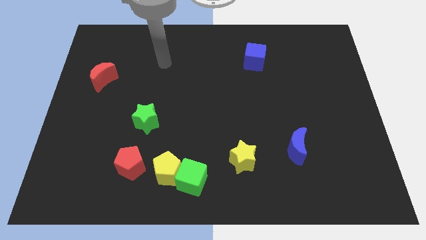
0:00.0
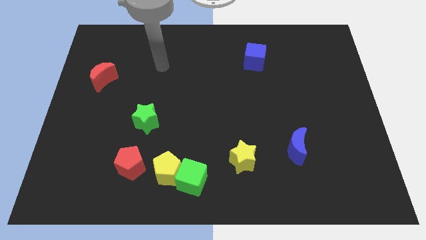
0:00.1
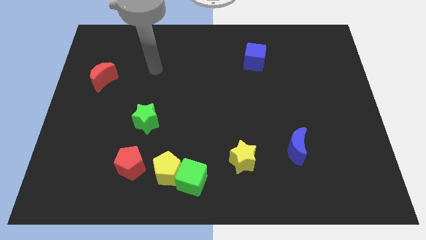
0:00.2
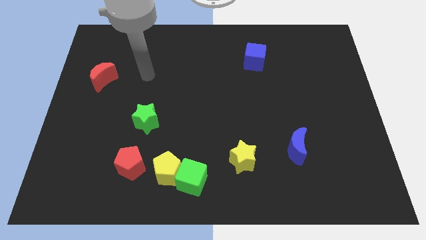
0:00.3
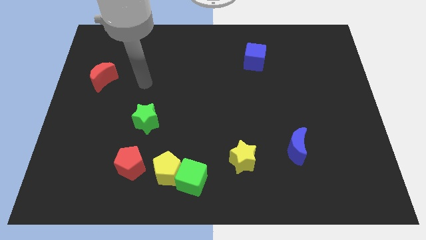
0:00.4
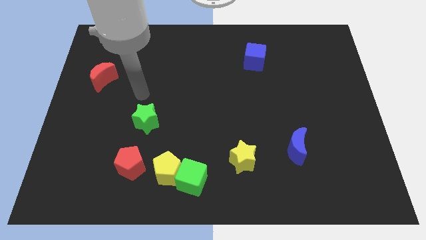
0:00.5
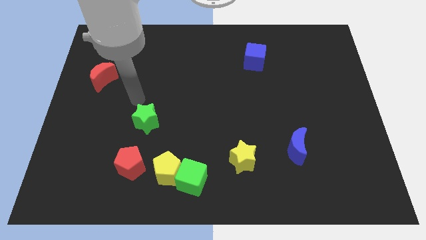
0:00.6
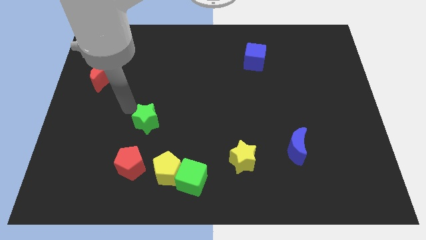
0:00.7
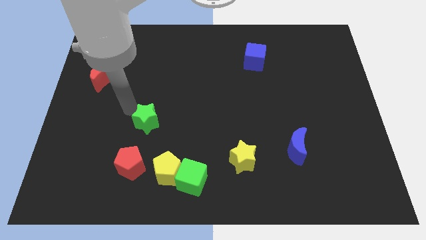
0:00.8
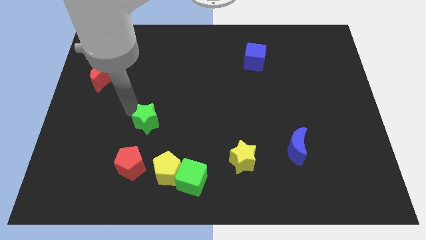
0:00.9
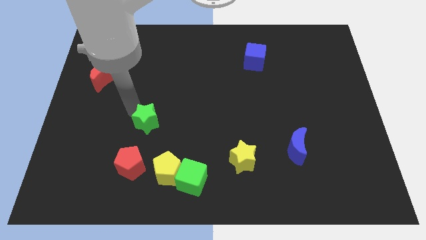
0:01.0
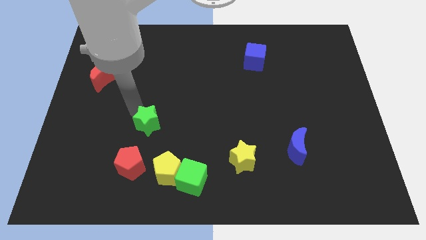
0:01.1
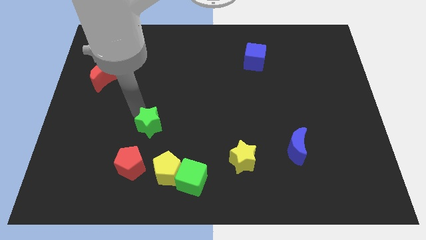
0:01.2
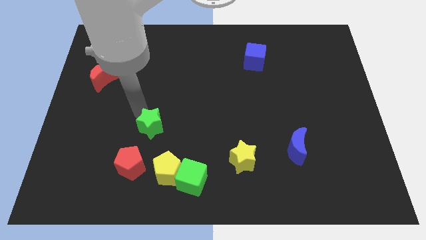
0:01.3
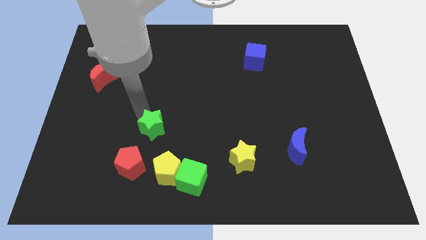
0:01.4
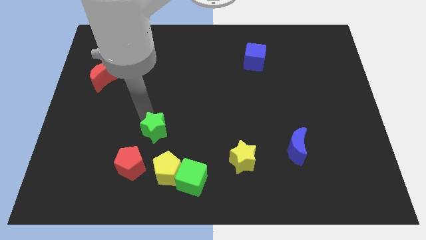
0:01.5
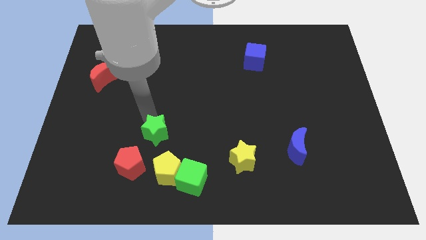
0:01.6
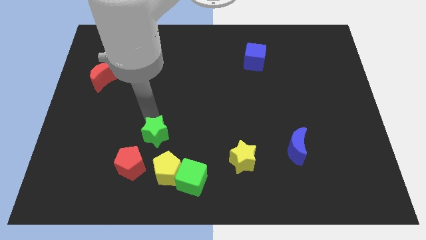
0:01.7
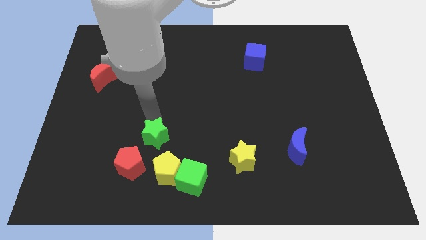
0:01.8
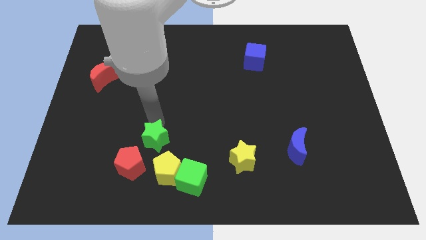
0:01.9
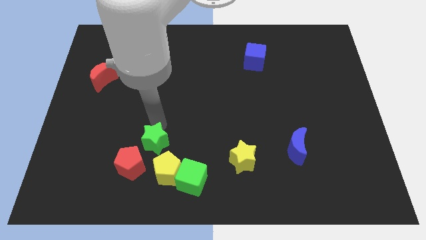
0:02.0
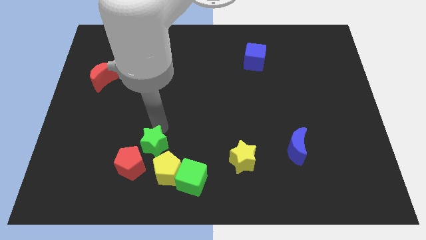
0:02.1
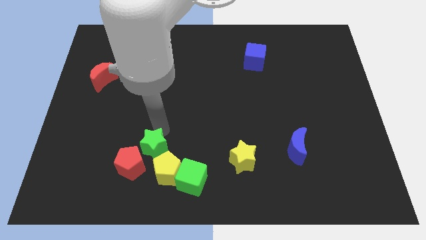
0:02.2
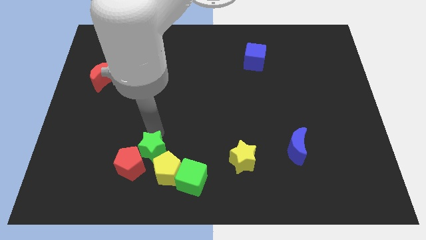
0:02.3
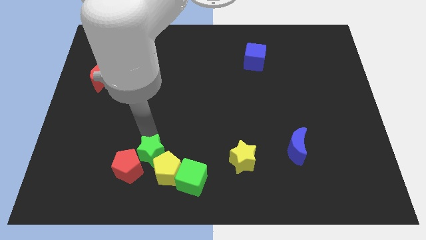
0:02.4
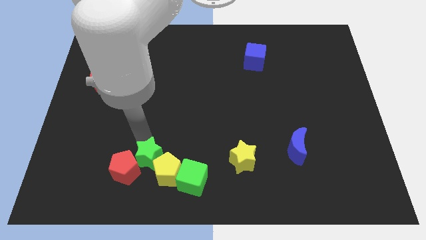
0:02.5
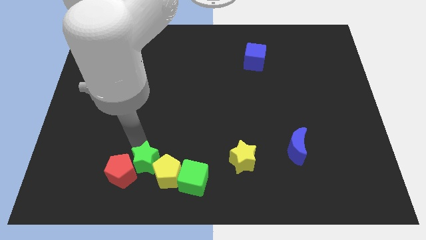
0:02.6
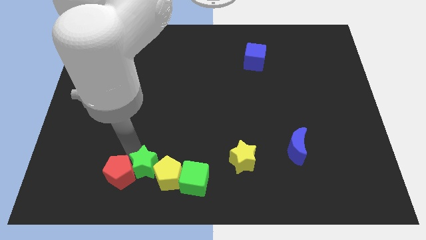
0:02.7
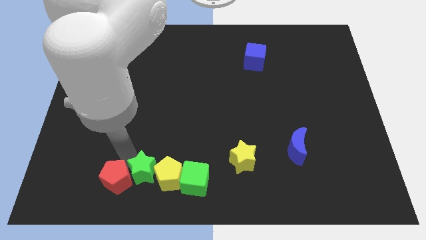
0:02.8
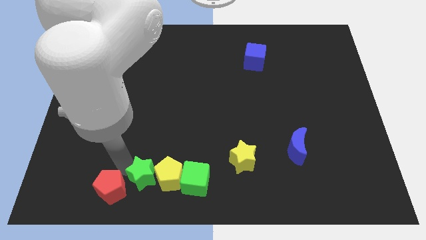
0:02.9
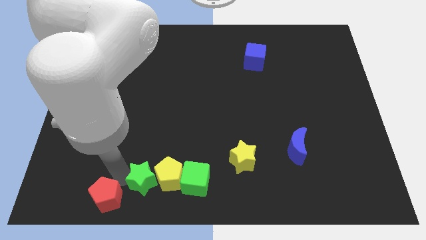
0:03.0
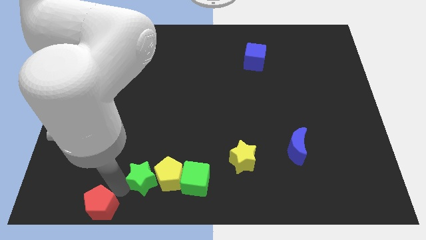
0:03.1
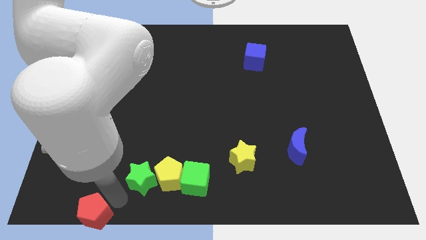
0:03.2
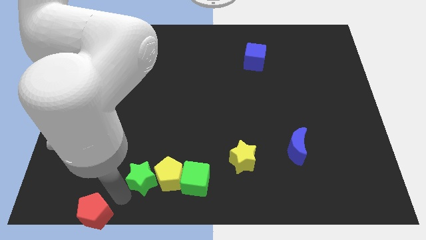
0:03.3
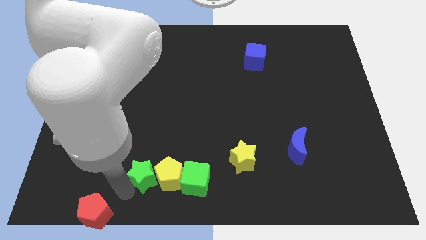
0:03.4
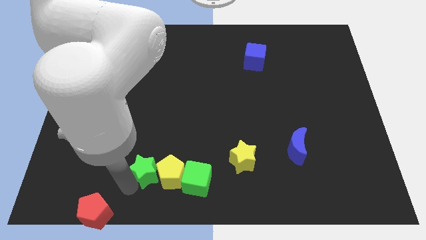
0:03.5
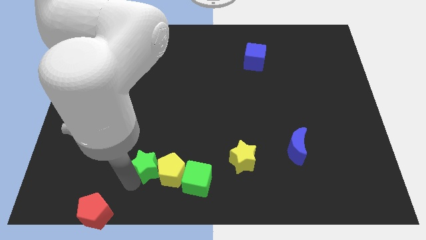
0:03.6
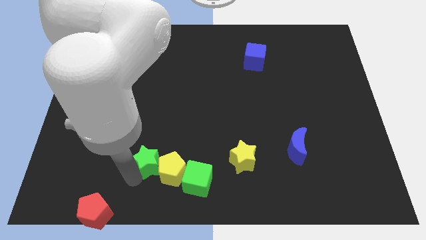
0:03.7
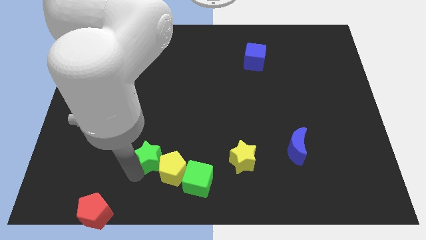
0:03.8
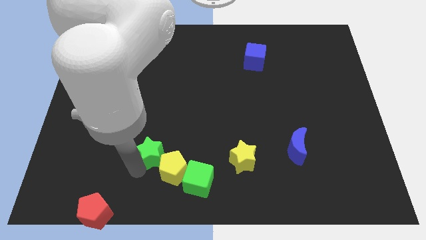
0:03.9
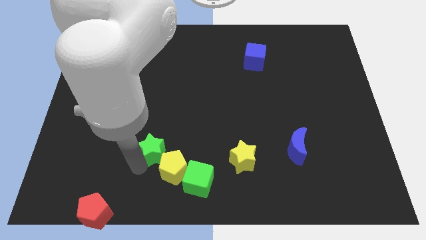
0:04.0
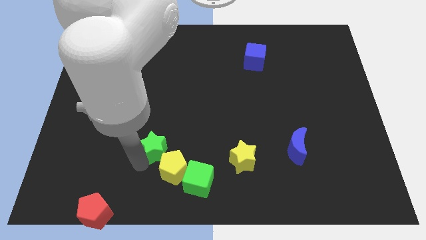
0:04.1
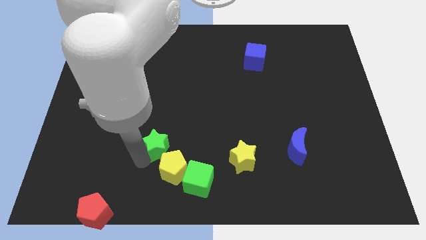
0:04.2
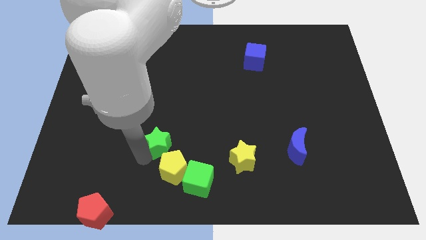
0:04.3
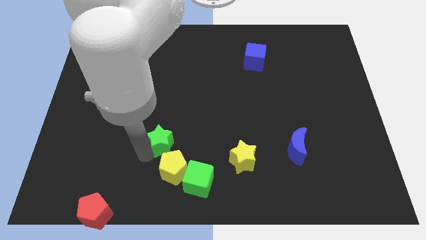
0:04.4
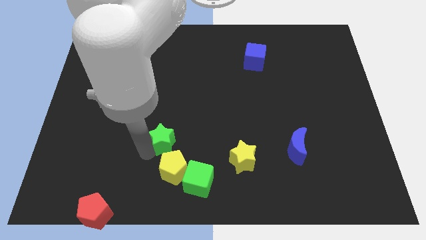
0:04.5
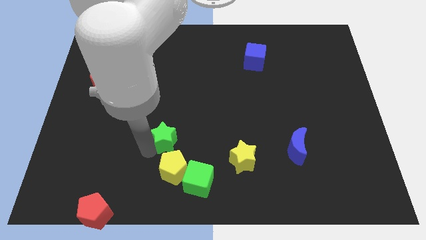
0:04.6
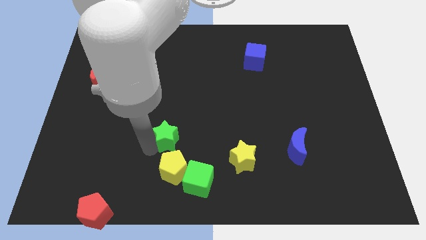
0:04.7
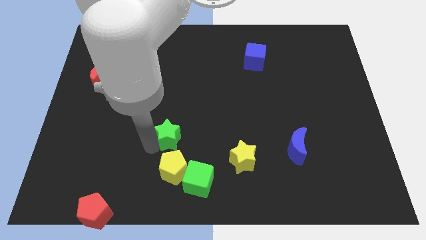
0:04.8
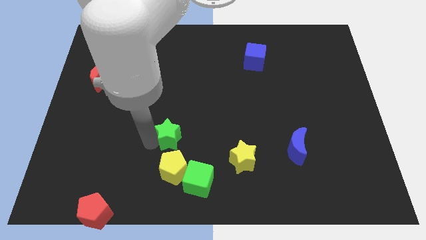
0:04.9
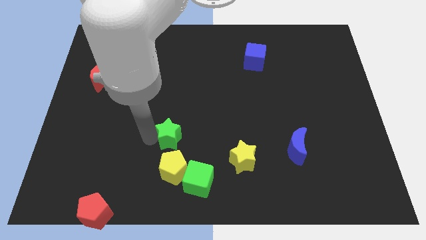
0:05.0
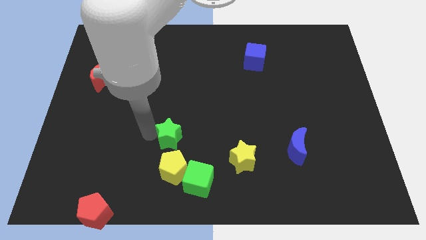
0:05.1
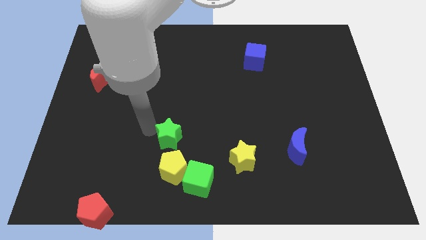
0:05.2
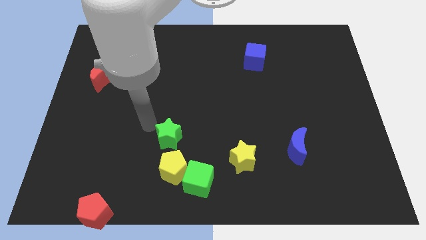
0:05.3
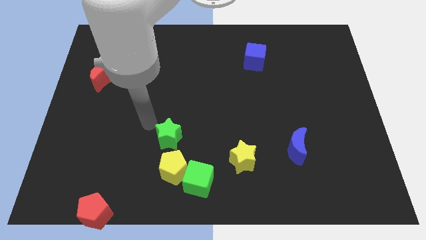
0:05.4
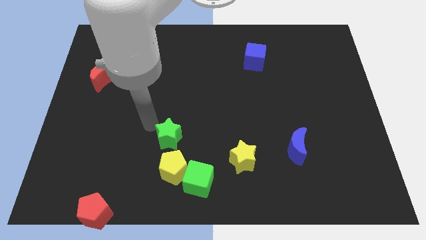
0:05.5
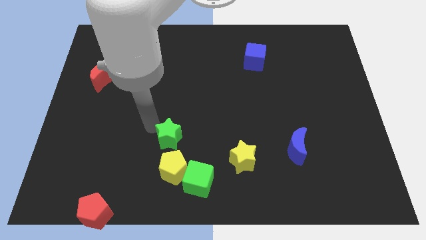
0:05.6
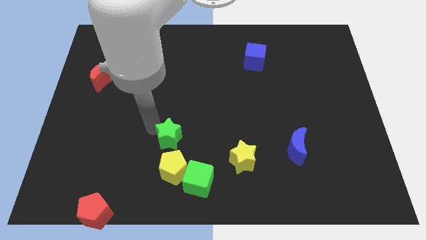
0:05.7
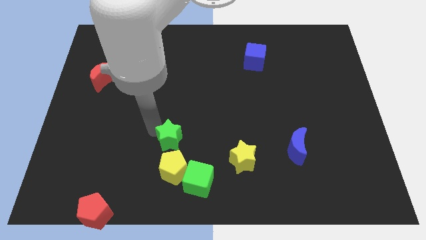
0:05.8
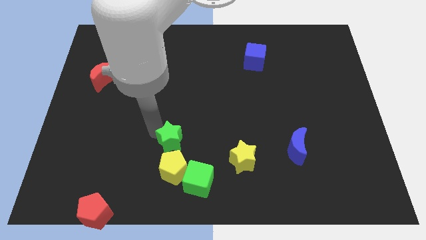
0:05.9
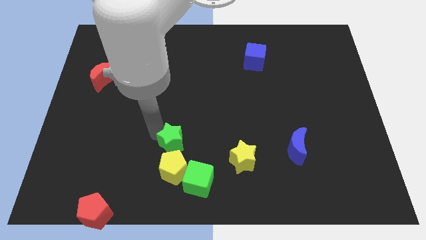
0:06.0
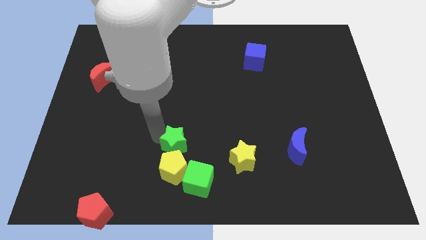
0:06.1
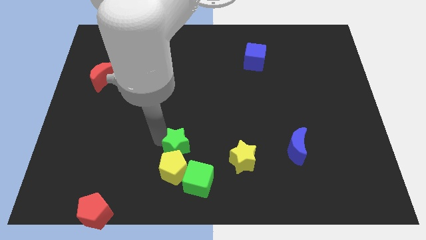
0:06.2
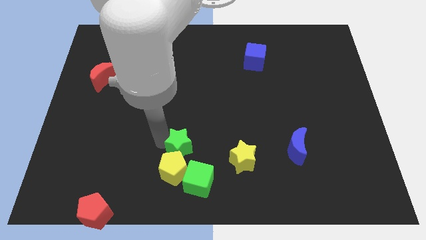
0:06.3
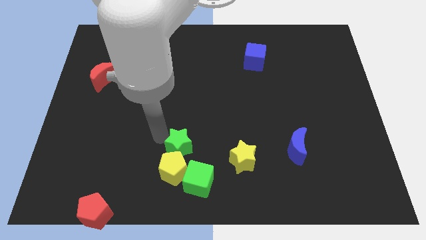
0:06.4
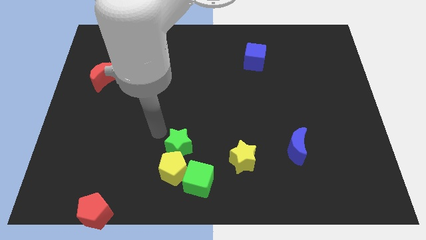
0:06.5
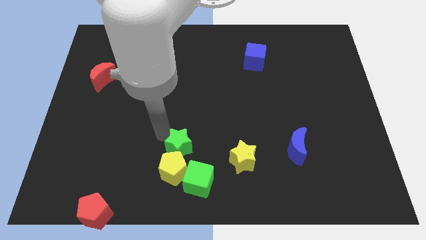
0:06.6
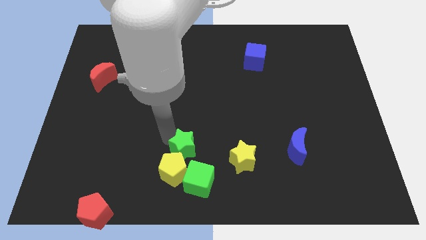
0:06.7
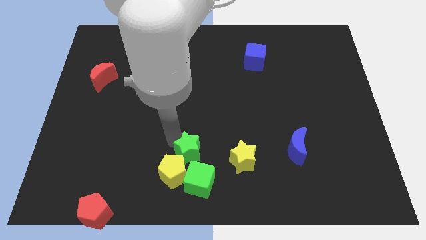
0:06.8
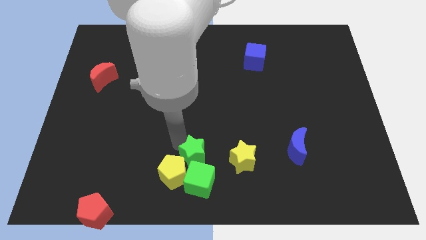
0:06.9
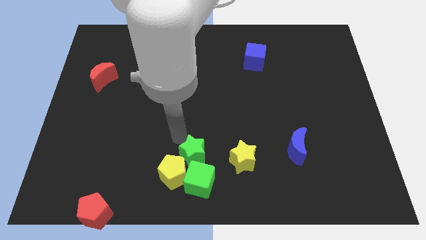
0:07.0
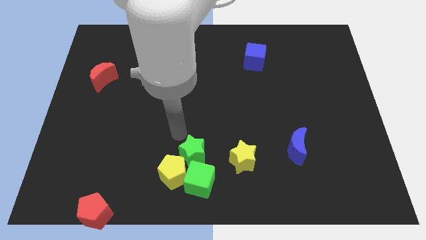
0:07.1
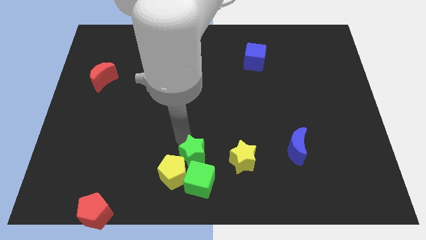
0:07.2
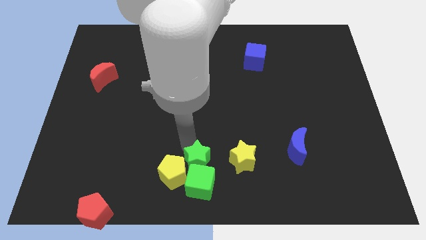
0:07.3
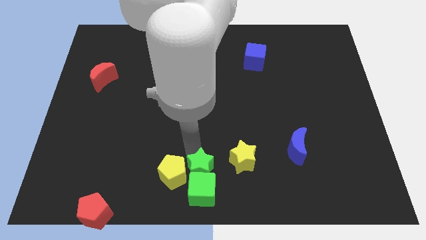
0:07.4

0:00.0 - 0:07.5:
move the green star to the bottom left of the yellow star
